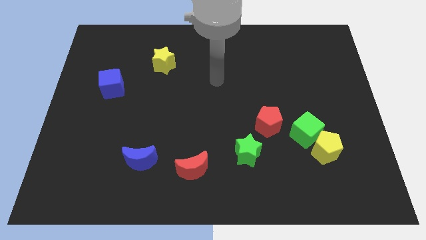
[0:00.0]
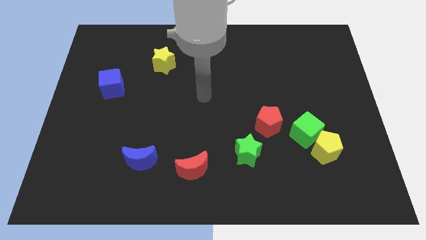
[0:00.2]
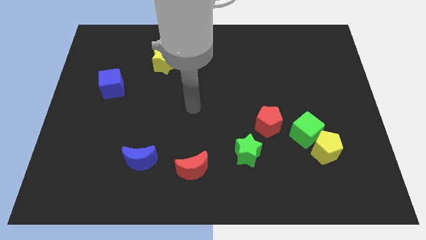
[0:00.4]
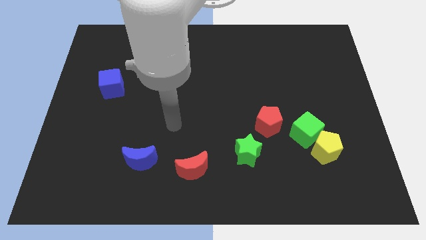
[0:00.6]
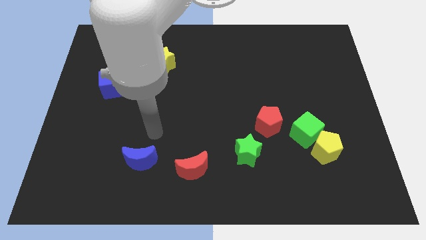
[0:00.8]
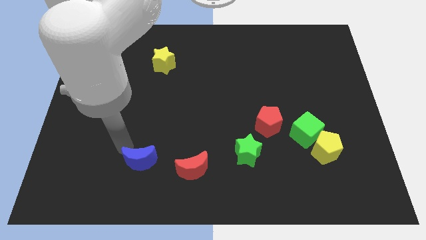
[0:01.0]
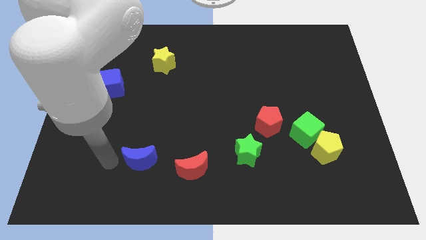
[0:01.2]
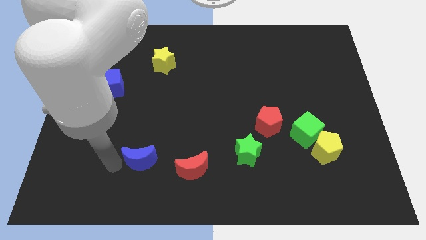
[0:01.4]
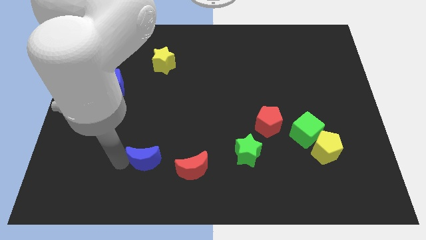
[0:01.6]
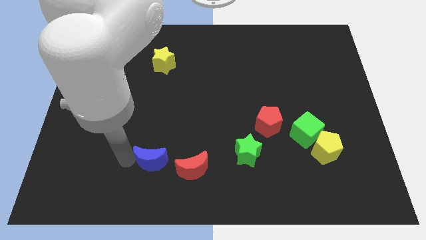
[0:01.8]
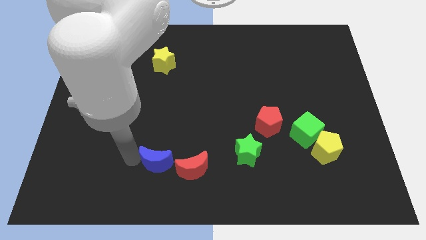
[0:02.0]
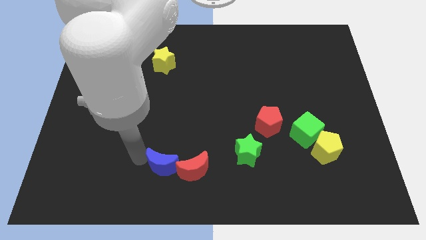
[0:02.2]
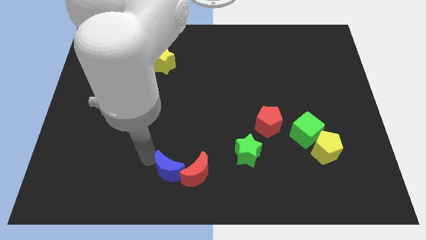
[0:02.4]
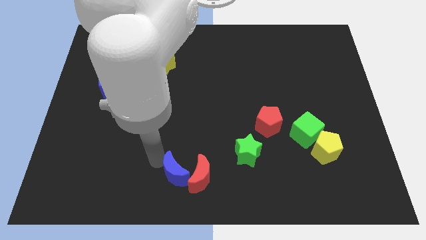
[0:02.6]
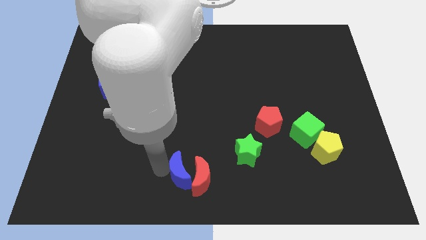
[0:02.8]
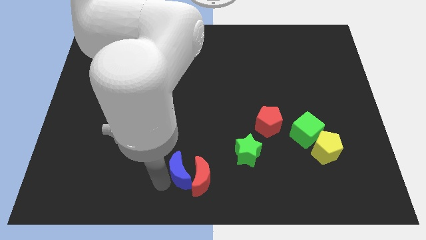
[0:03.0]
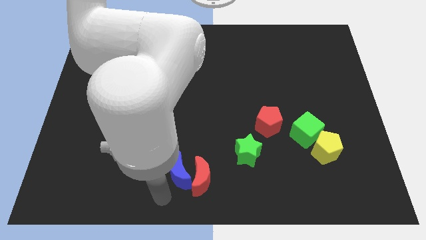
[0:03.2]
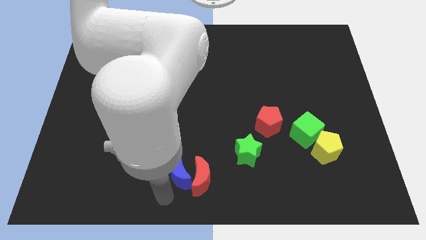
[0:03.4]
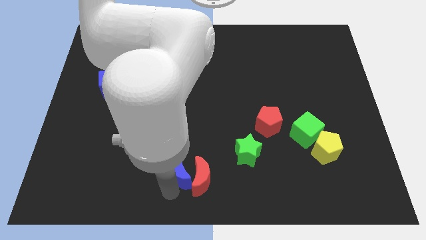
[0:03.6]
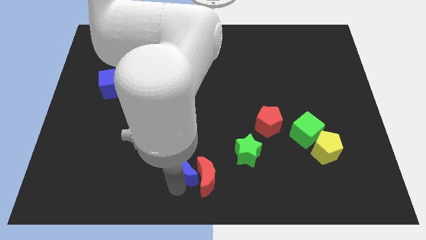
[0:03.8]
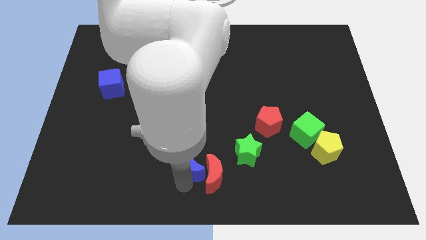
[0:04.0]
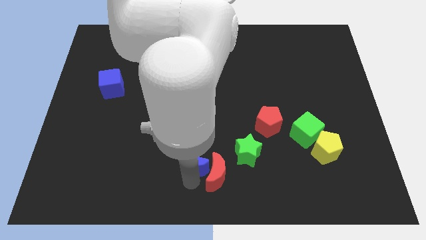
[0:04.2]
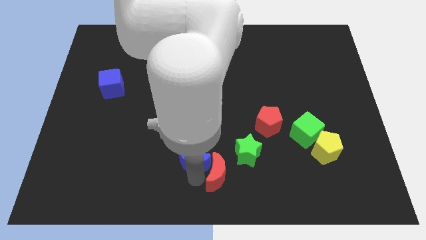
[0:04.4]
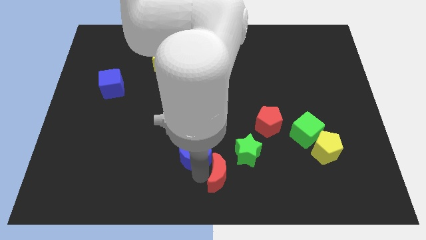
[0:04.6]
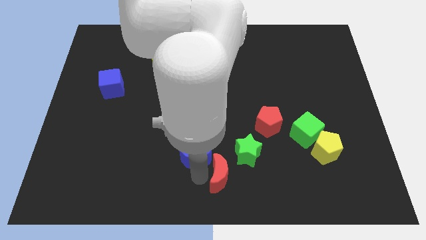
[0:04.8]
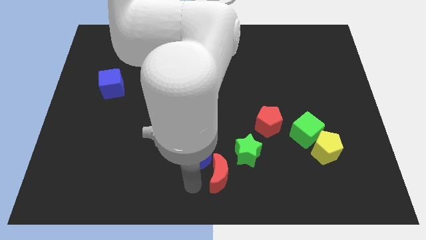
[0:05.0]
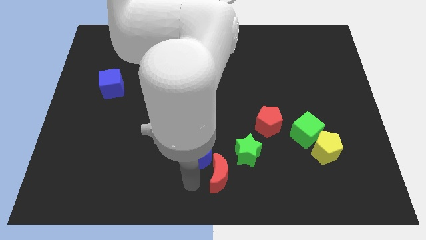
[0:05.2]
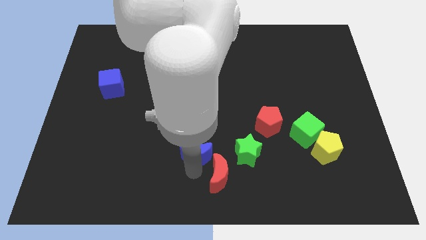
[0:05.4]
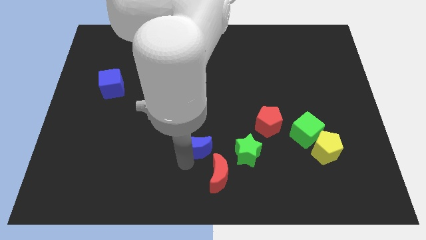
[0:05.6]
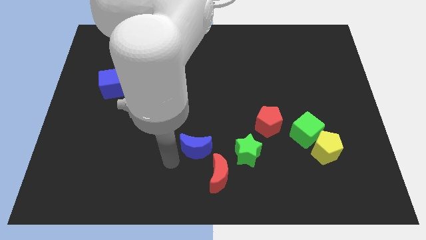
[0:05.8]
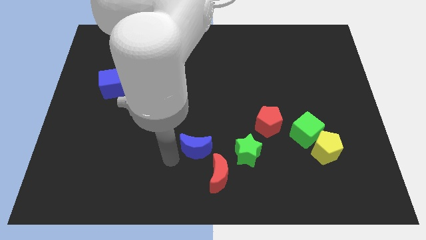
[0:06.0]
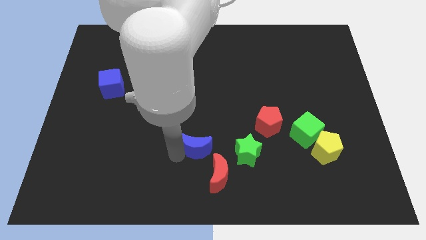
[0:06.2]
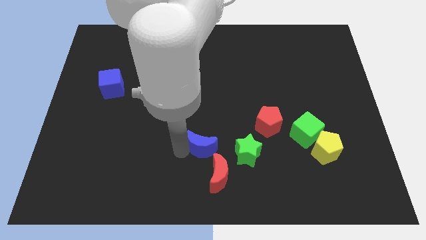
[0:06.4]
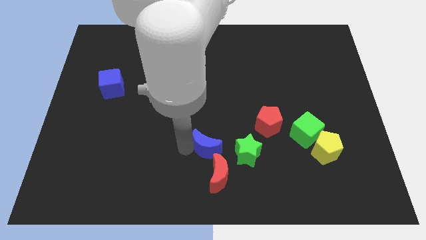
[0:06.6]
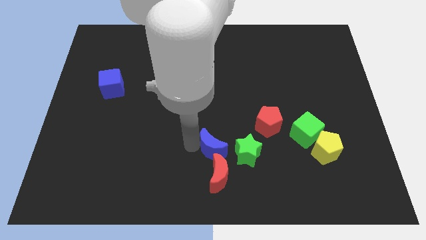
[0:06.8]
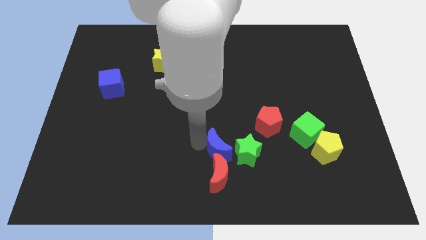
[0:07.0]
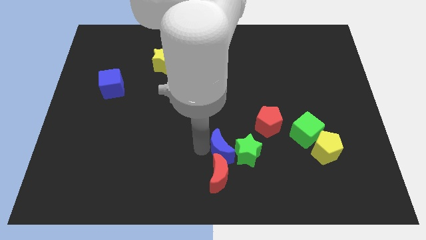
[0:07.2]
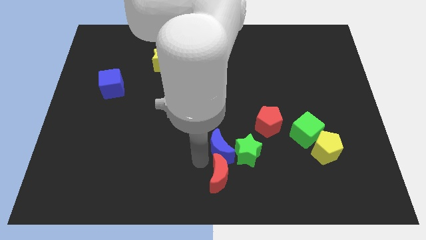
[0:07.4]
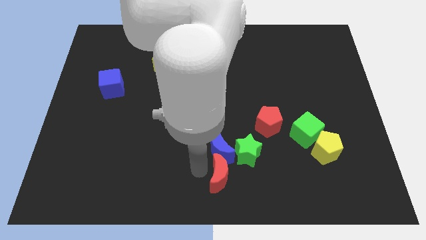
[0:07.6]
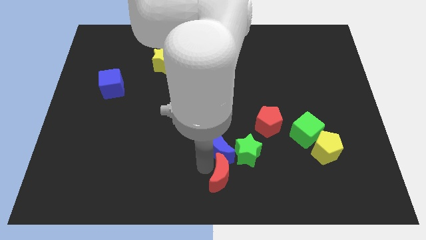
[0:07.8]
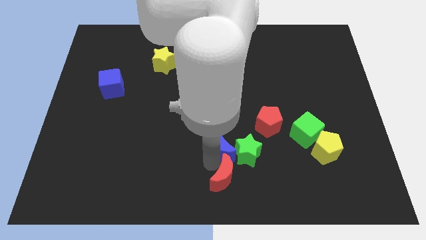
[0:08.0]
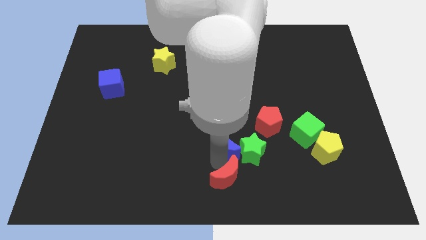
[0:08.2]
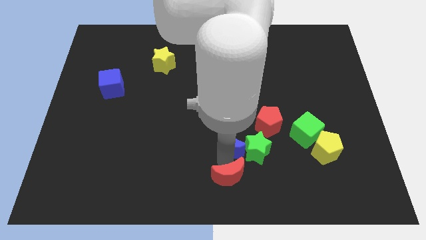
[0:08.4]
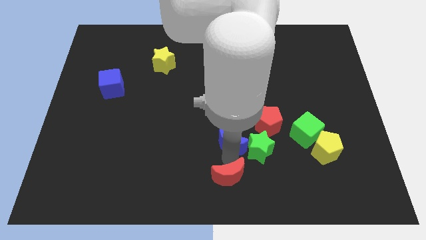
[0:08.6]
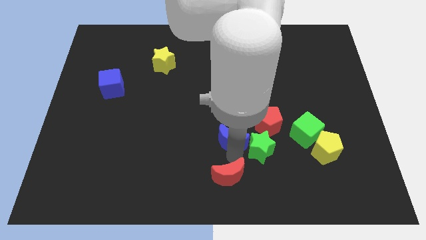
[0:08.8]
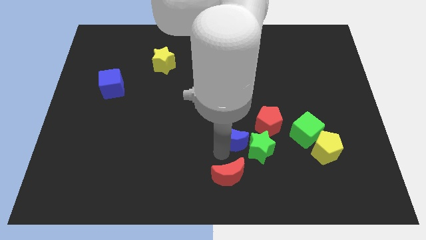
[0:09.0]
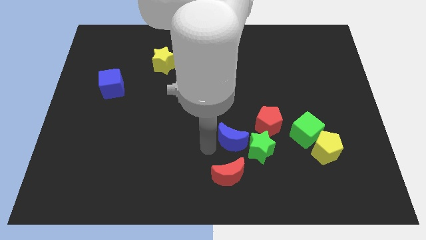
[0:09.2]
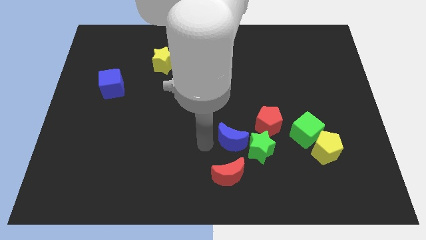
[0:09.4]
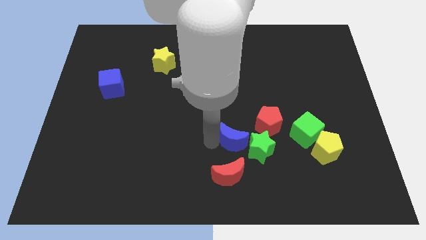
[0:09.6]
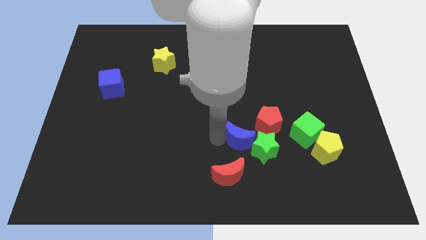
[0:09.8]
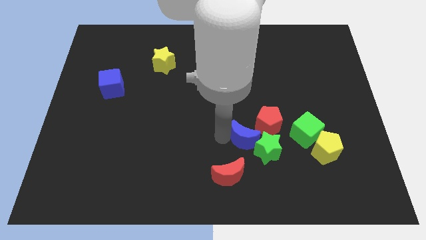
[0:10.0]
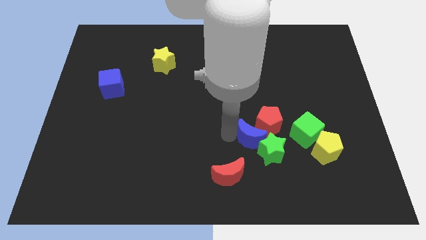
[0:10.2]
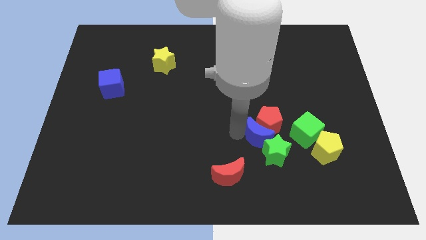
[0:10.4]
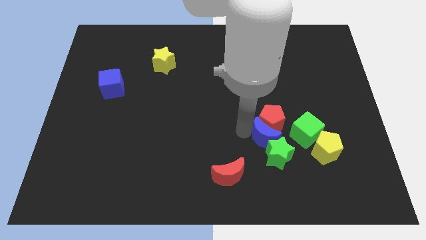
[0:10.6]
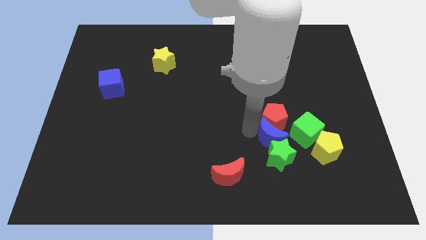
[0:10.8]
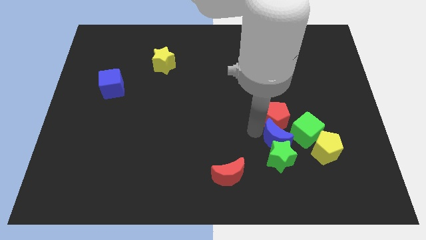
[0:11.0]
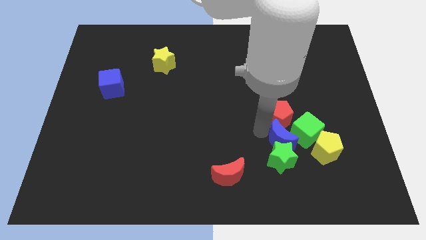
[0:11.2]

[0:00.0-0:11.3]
move the blue moon to the green cube

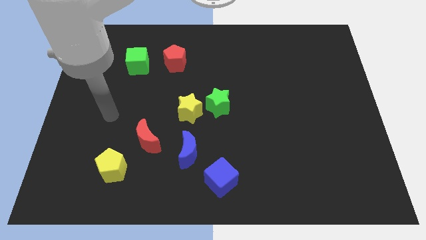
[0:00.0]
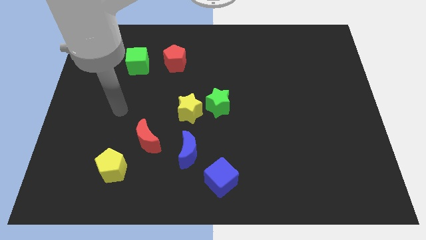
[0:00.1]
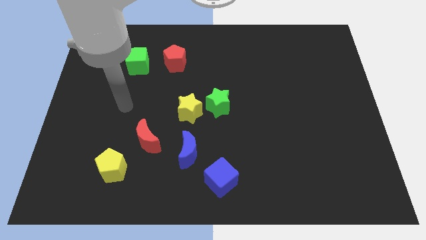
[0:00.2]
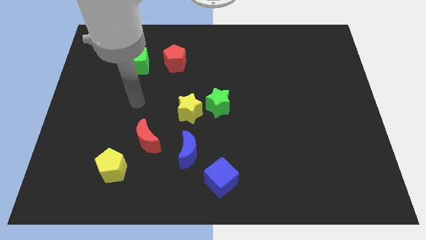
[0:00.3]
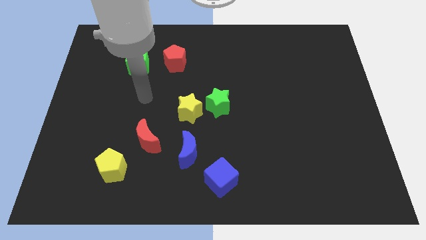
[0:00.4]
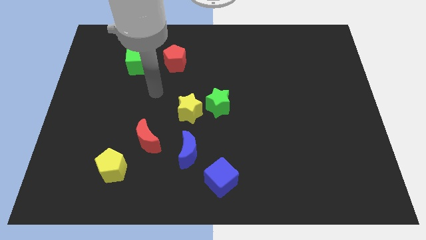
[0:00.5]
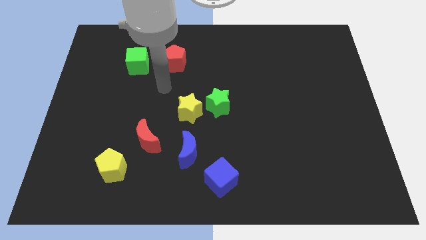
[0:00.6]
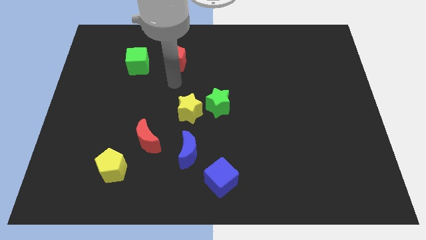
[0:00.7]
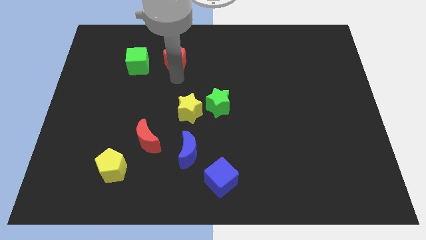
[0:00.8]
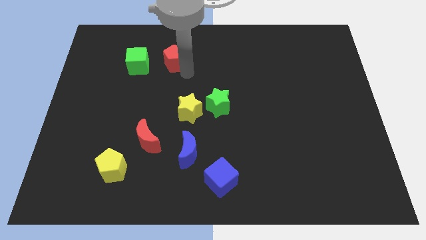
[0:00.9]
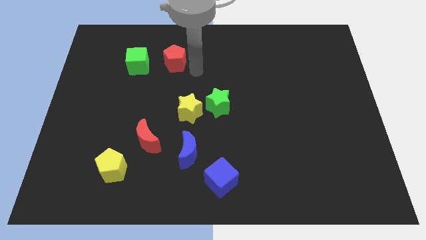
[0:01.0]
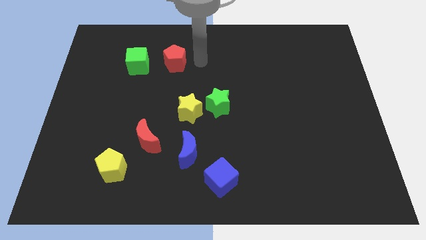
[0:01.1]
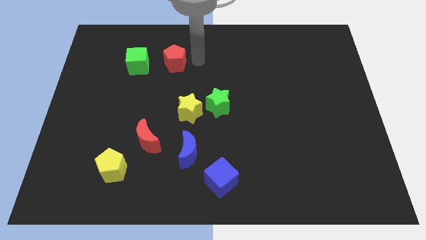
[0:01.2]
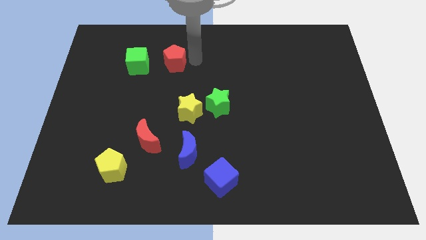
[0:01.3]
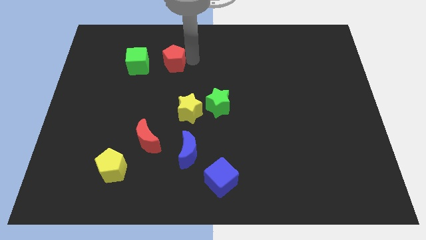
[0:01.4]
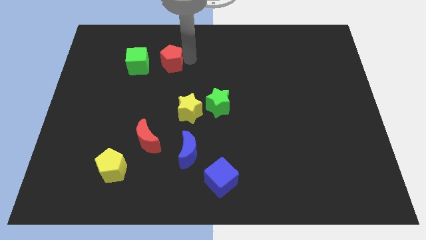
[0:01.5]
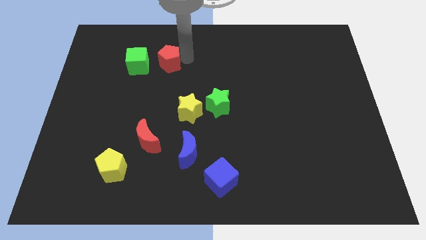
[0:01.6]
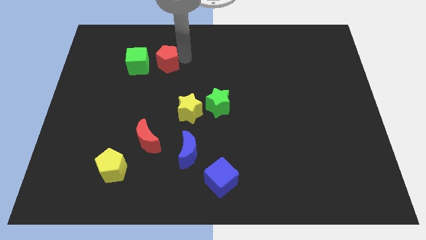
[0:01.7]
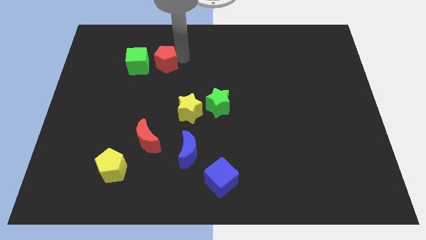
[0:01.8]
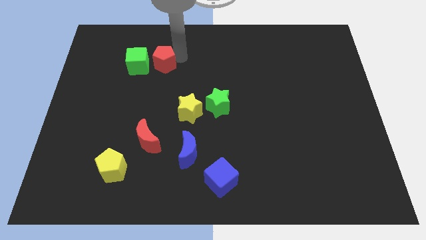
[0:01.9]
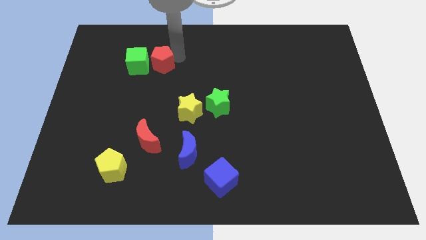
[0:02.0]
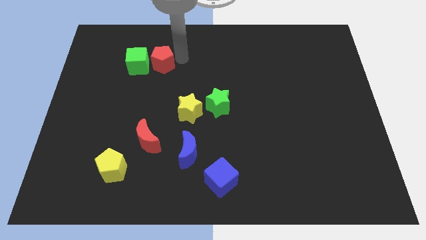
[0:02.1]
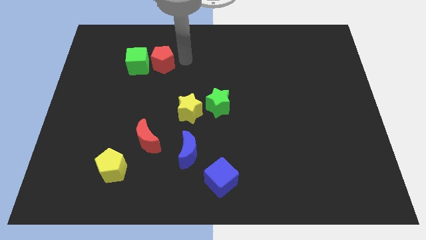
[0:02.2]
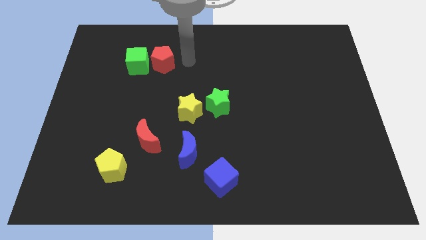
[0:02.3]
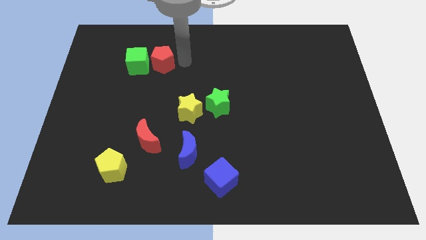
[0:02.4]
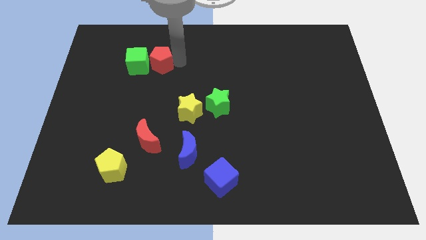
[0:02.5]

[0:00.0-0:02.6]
move the red pentagon towards the green cube
